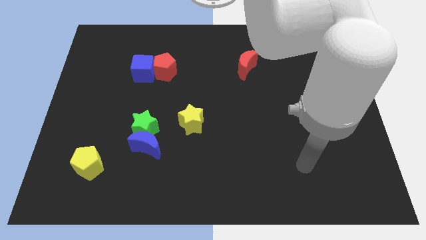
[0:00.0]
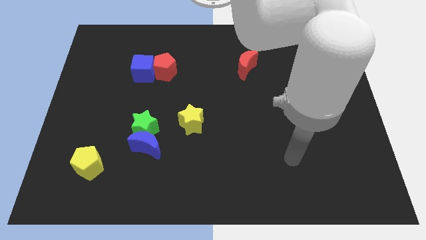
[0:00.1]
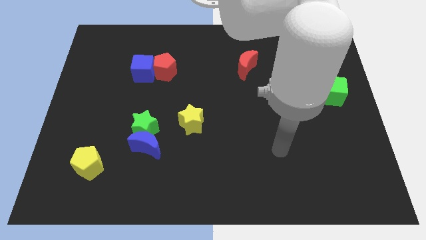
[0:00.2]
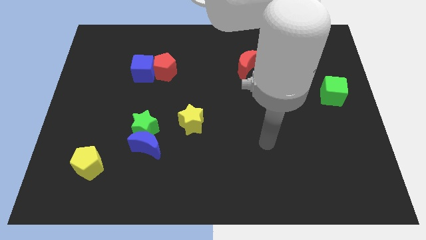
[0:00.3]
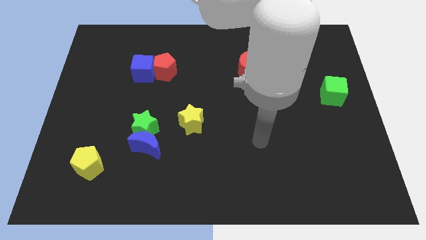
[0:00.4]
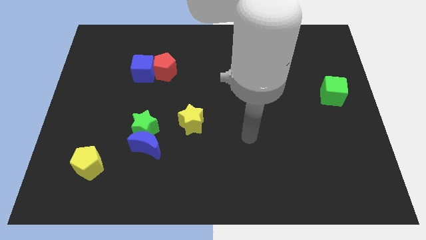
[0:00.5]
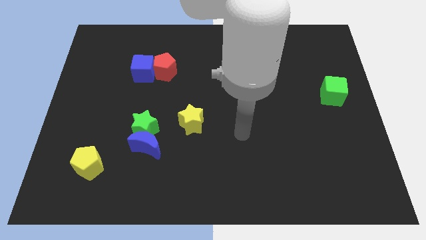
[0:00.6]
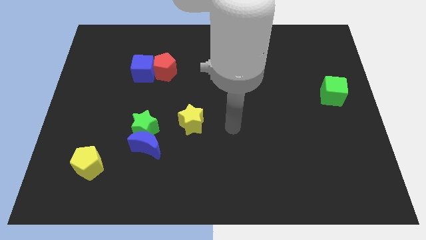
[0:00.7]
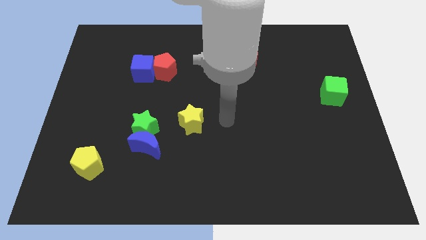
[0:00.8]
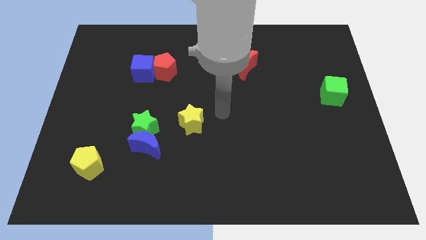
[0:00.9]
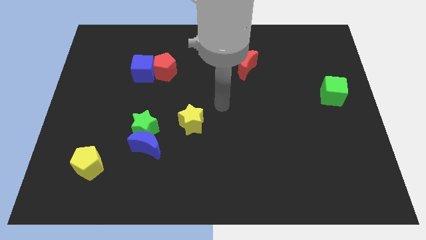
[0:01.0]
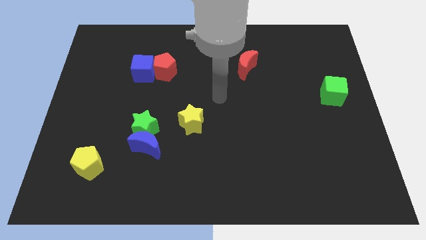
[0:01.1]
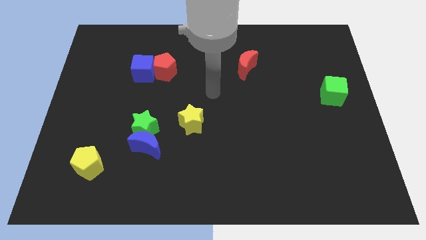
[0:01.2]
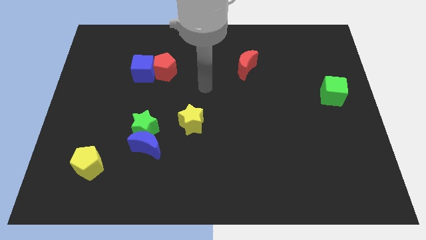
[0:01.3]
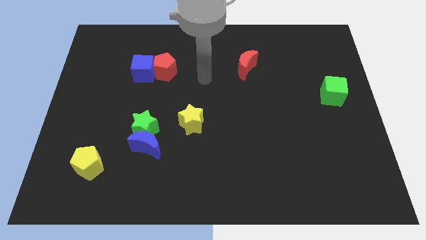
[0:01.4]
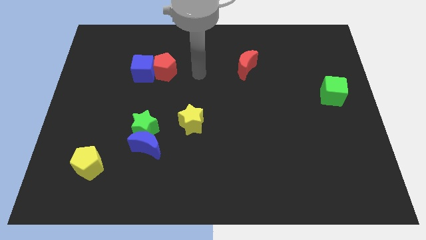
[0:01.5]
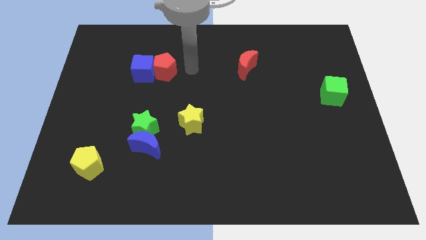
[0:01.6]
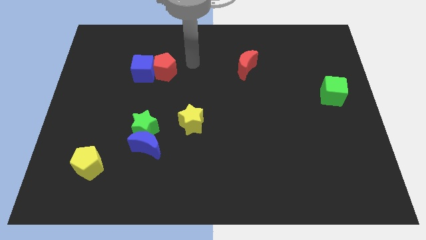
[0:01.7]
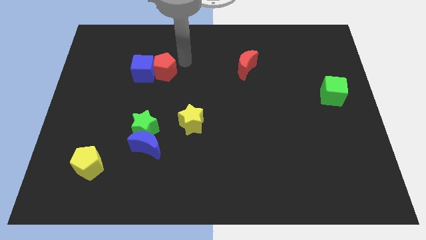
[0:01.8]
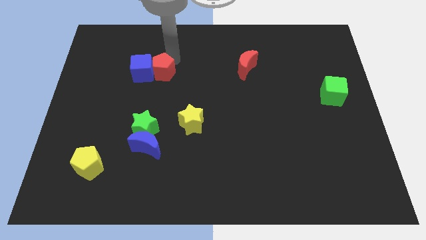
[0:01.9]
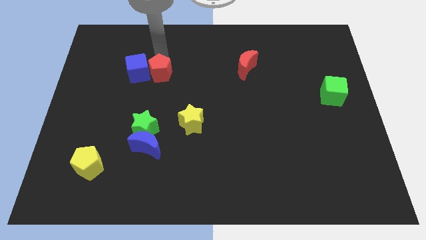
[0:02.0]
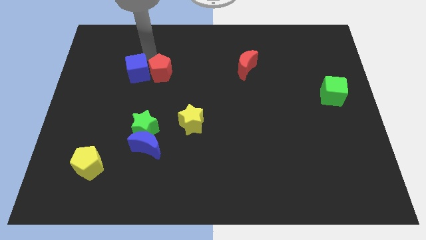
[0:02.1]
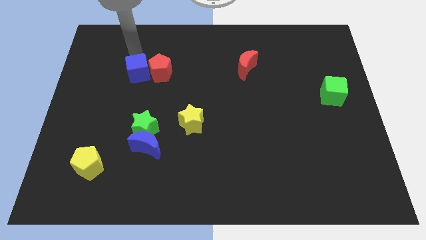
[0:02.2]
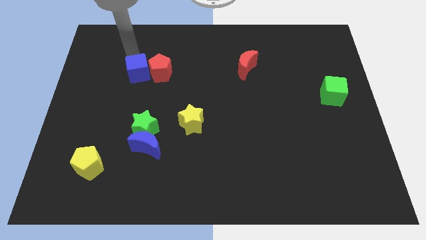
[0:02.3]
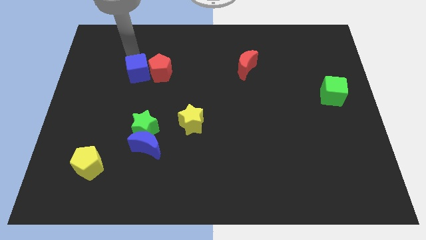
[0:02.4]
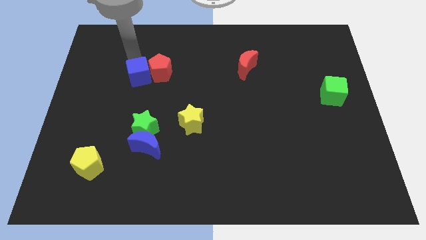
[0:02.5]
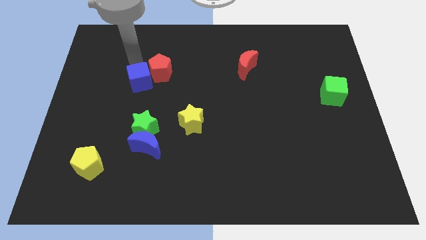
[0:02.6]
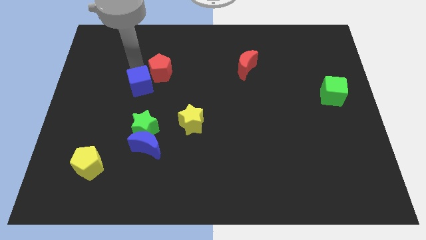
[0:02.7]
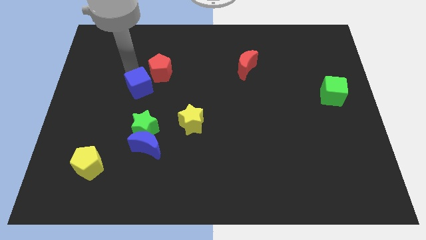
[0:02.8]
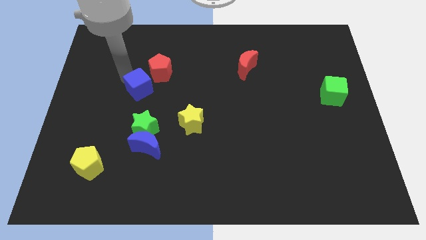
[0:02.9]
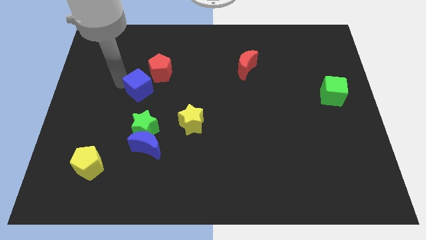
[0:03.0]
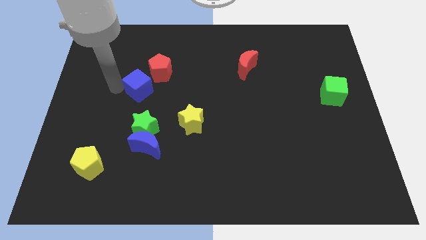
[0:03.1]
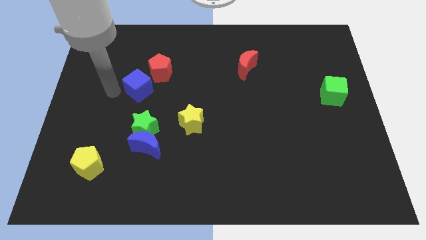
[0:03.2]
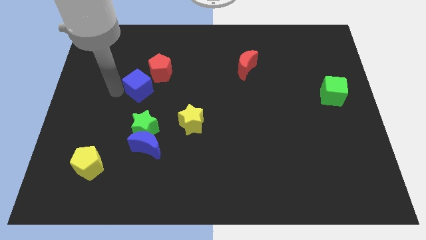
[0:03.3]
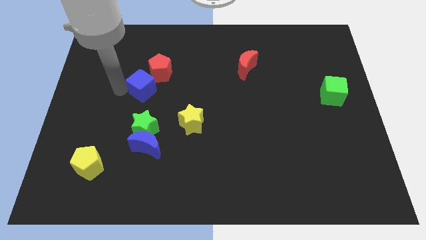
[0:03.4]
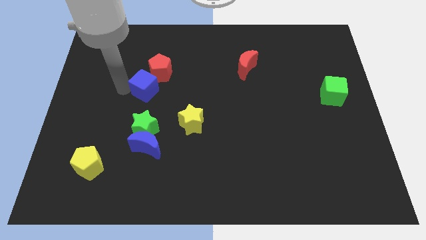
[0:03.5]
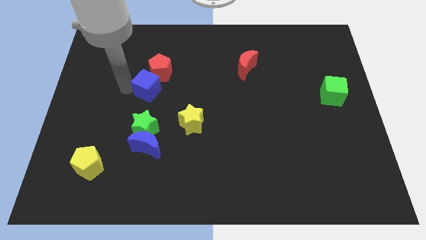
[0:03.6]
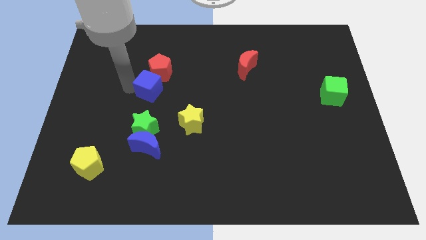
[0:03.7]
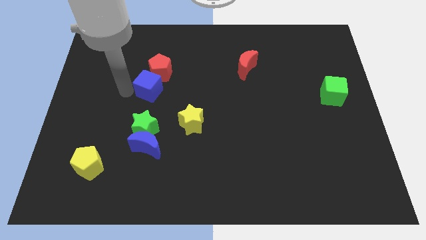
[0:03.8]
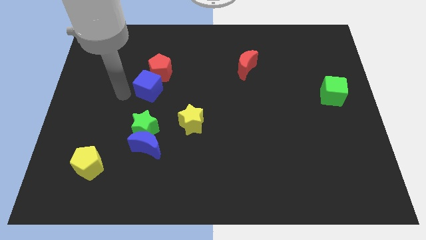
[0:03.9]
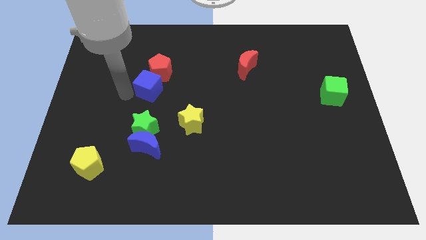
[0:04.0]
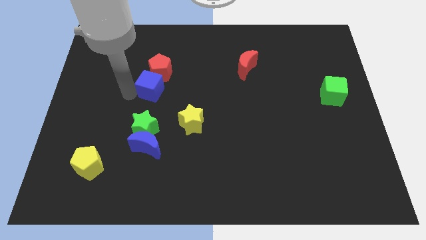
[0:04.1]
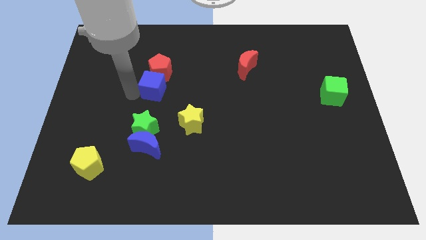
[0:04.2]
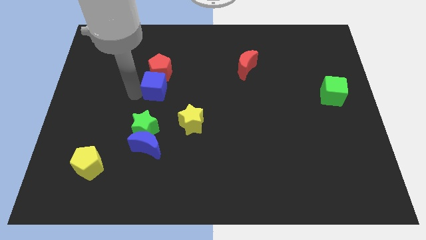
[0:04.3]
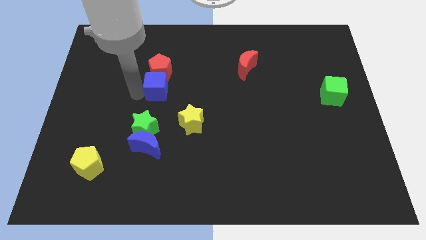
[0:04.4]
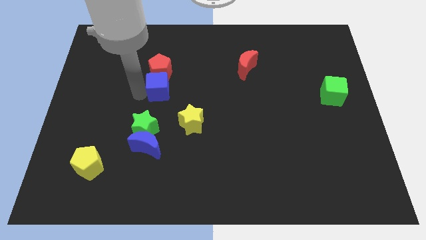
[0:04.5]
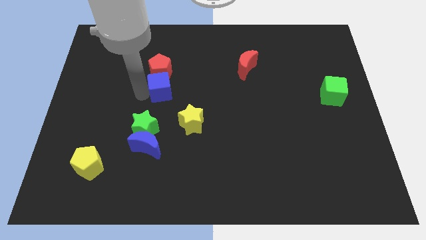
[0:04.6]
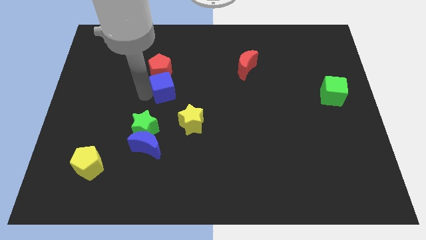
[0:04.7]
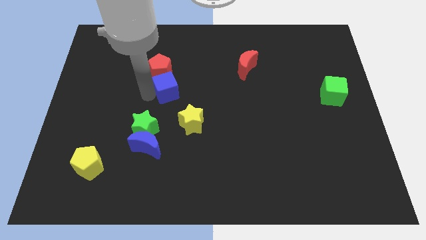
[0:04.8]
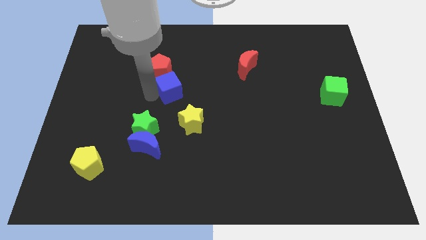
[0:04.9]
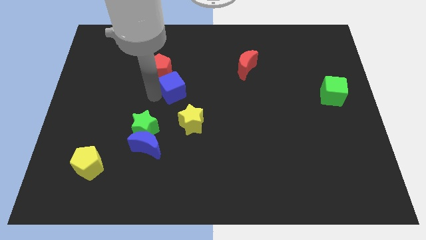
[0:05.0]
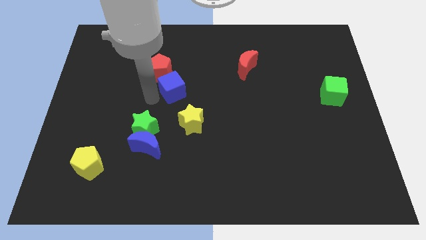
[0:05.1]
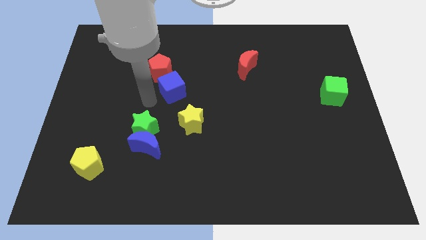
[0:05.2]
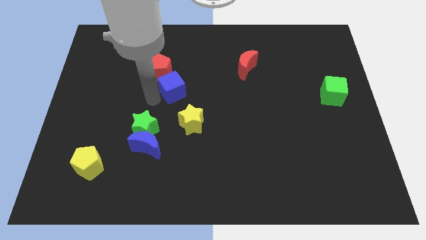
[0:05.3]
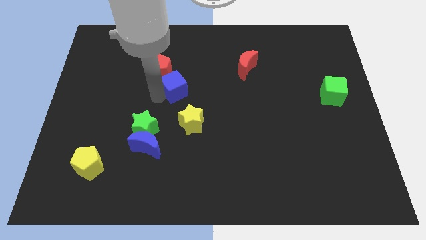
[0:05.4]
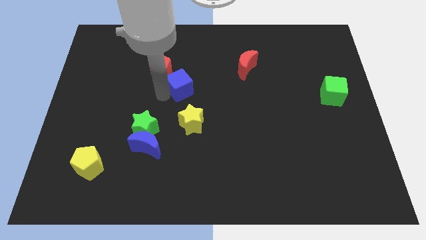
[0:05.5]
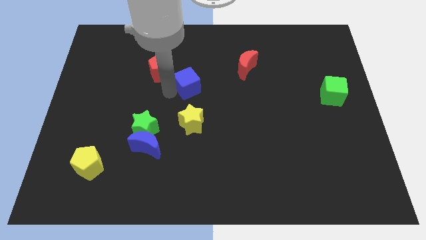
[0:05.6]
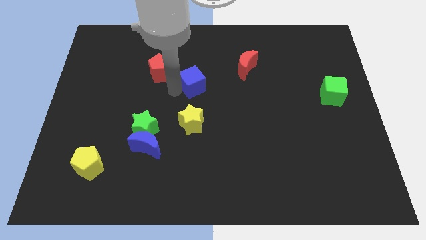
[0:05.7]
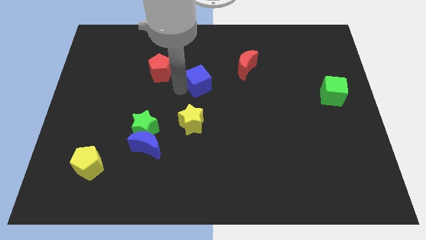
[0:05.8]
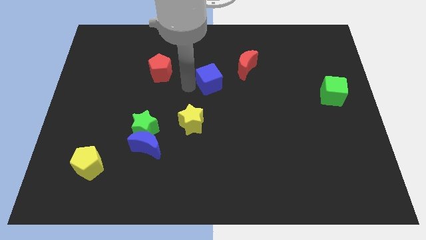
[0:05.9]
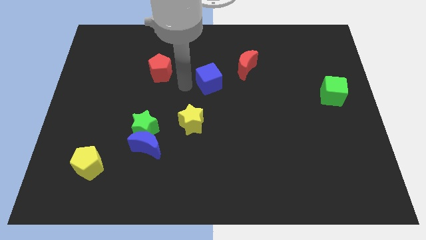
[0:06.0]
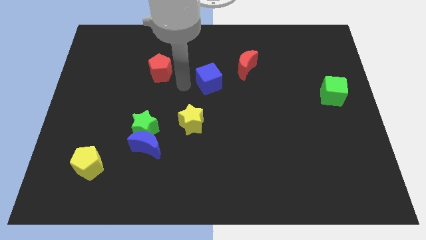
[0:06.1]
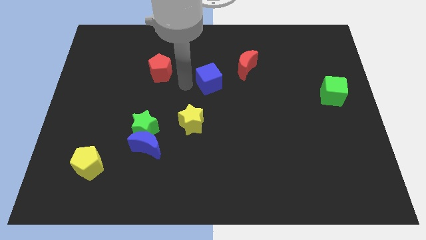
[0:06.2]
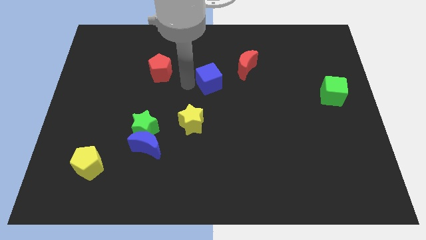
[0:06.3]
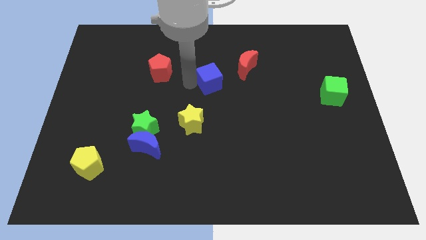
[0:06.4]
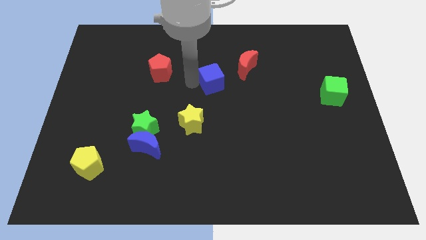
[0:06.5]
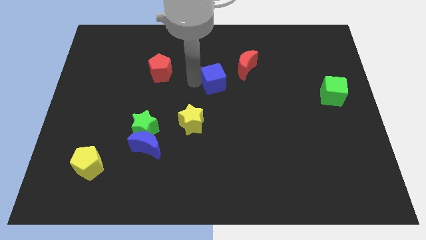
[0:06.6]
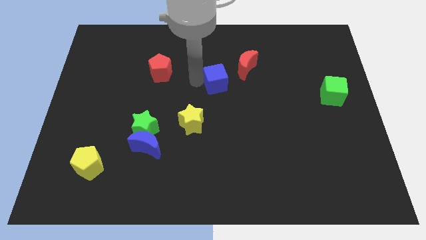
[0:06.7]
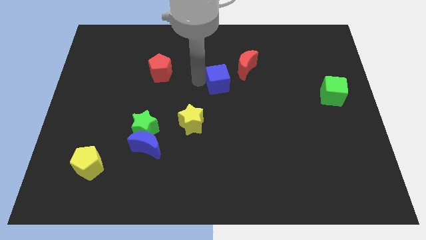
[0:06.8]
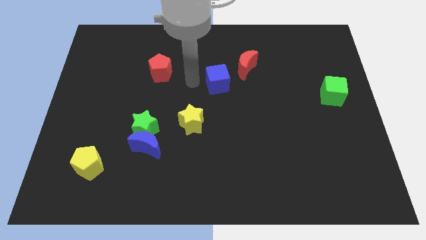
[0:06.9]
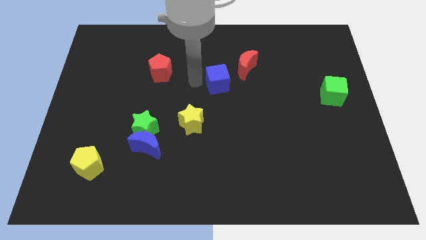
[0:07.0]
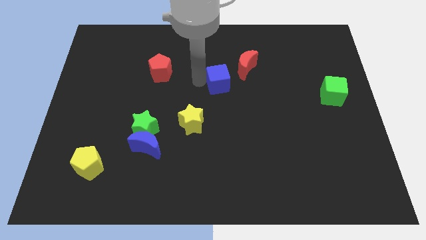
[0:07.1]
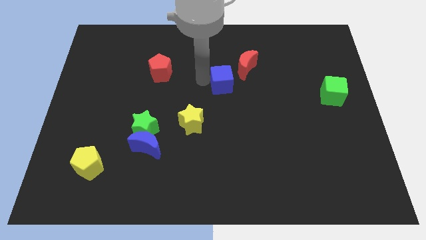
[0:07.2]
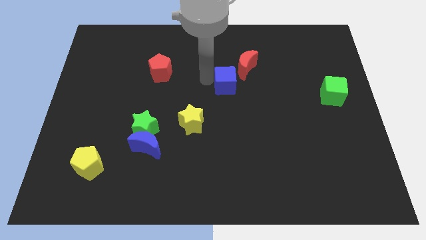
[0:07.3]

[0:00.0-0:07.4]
move the blue cube right

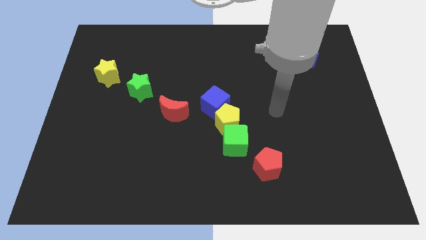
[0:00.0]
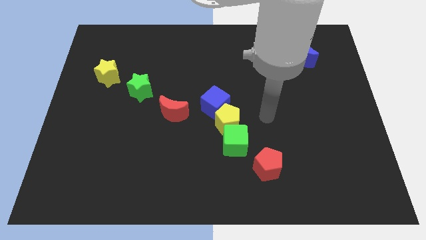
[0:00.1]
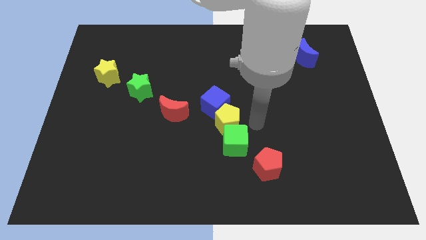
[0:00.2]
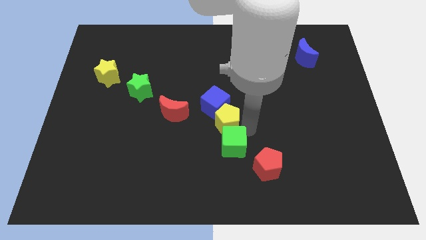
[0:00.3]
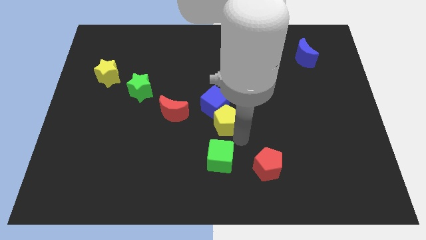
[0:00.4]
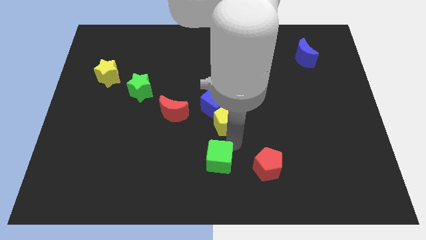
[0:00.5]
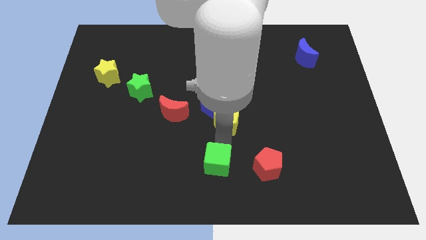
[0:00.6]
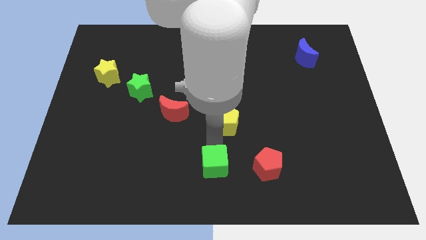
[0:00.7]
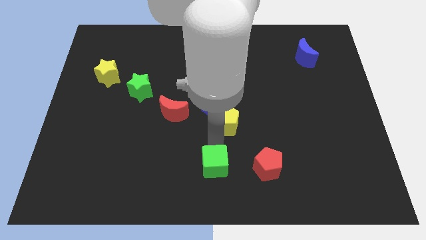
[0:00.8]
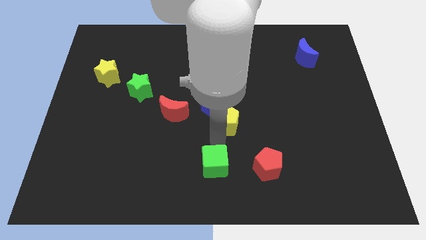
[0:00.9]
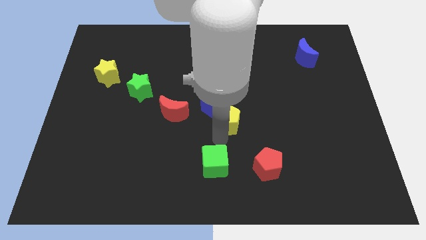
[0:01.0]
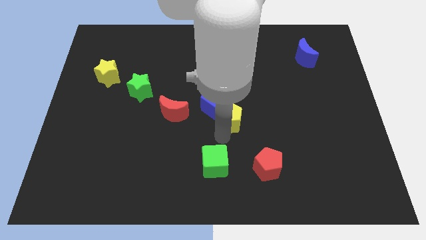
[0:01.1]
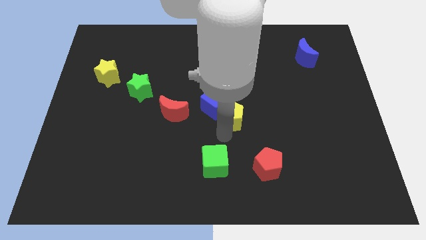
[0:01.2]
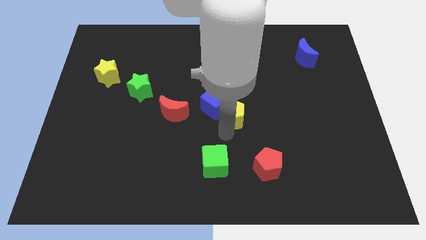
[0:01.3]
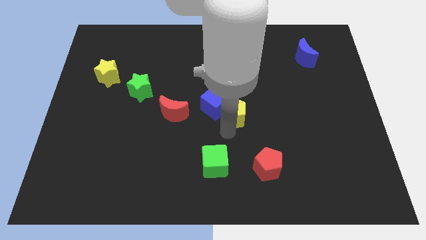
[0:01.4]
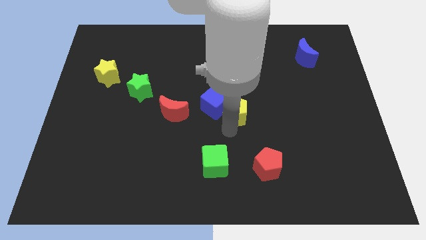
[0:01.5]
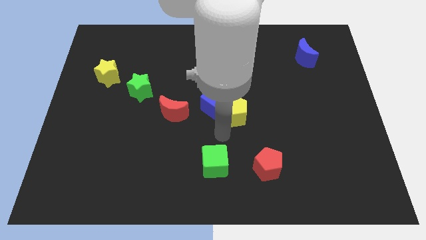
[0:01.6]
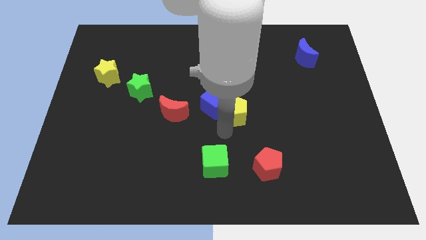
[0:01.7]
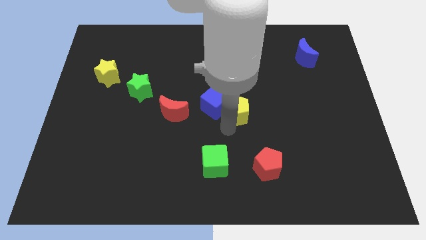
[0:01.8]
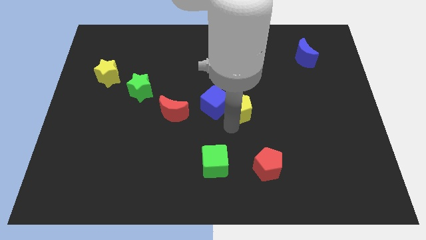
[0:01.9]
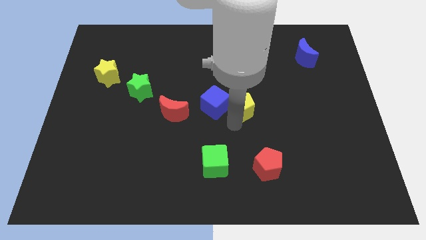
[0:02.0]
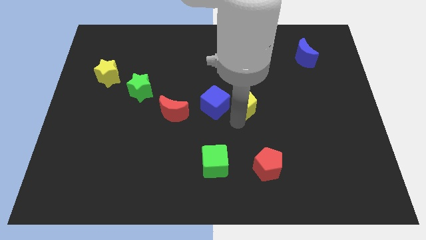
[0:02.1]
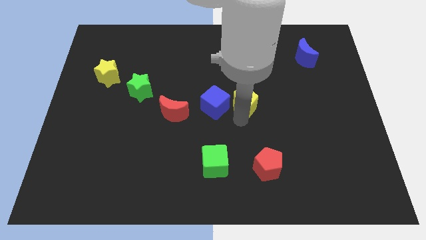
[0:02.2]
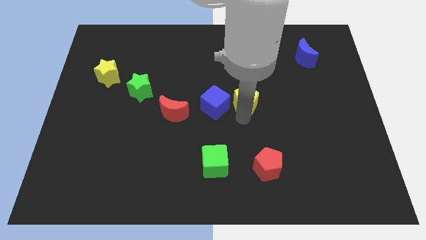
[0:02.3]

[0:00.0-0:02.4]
push the yellow pentagon a bit up and right diagonally
